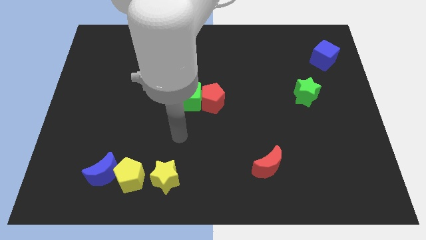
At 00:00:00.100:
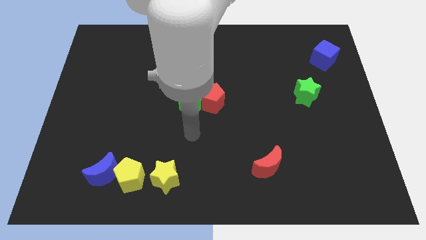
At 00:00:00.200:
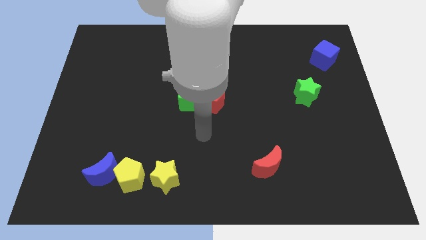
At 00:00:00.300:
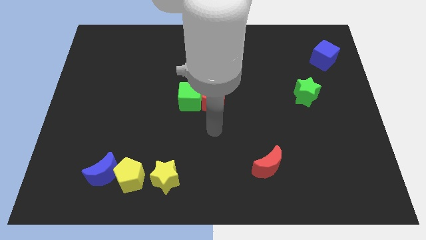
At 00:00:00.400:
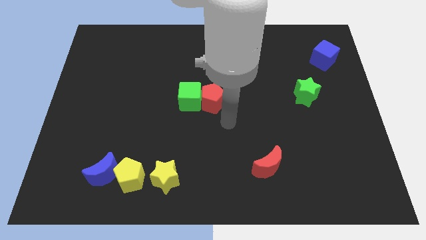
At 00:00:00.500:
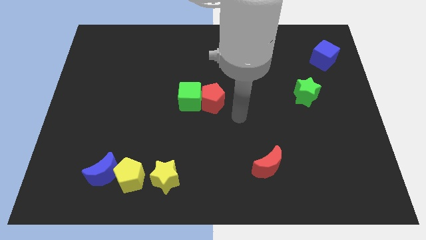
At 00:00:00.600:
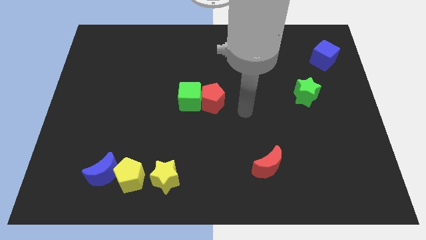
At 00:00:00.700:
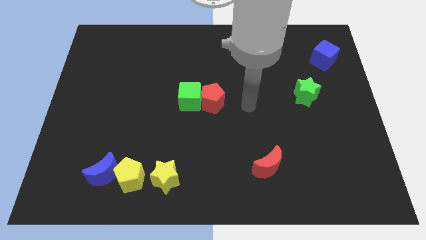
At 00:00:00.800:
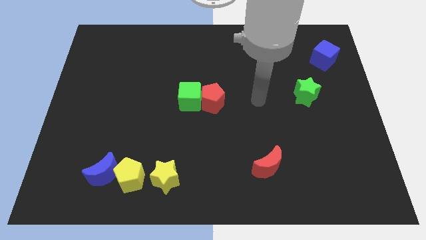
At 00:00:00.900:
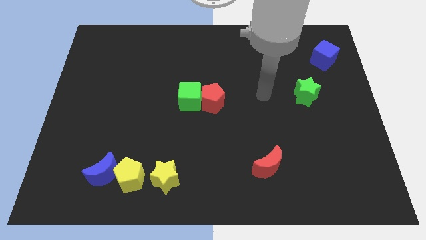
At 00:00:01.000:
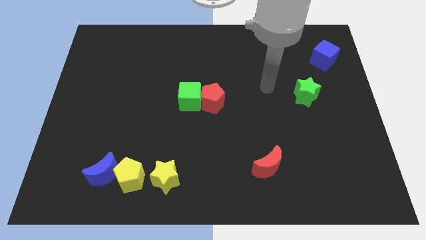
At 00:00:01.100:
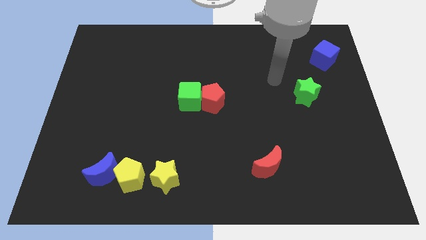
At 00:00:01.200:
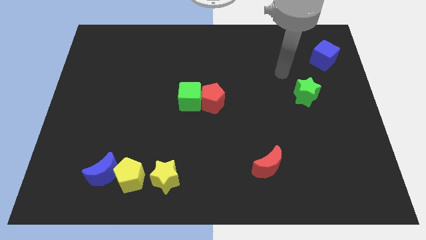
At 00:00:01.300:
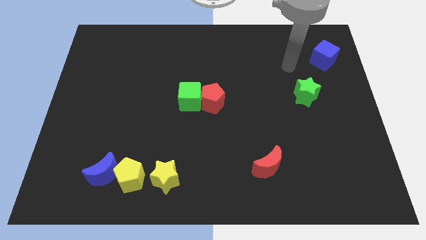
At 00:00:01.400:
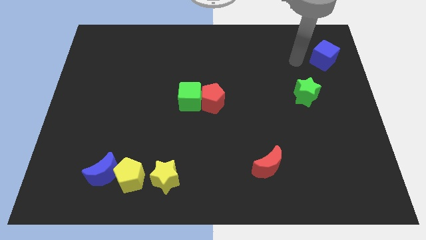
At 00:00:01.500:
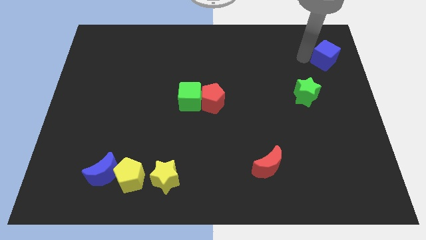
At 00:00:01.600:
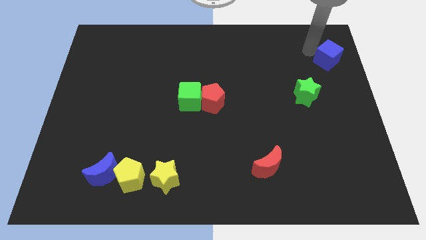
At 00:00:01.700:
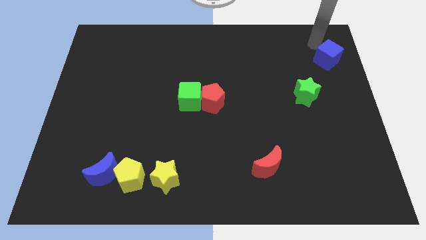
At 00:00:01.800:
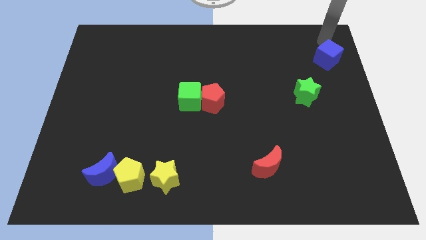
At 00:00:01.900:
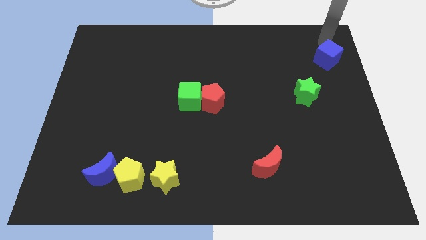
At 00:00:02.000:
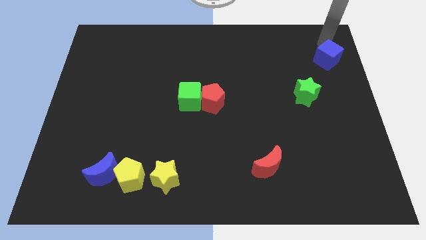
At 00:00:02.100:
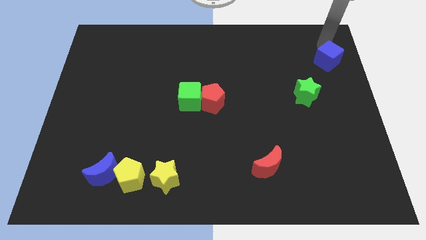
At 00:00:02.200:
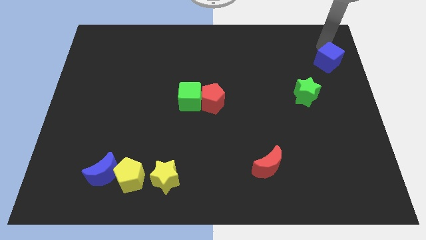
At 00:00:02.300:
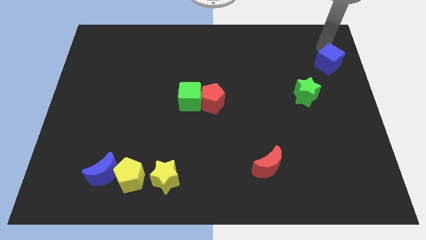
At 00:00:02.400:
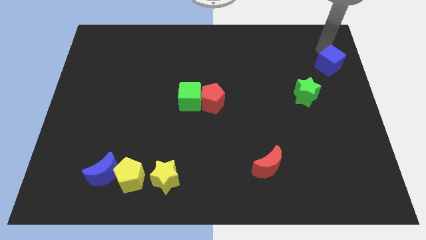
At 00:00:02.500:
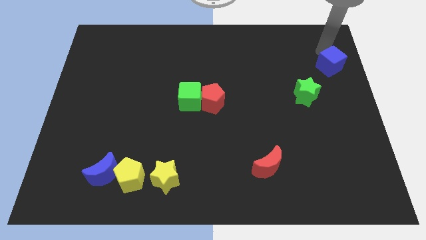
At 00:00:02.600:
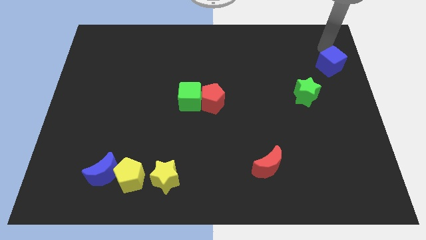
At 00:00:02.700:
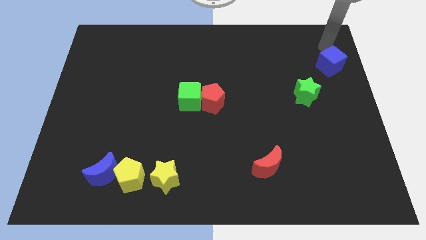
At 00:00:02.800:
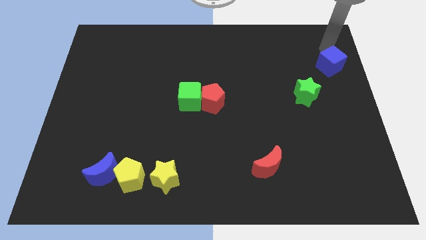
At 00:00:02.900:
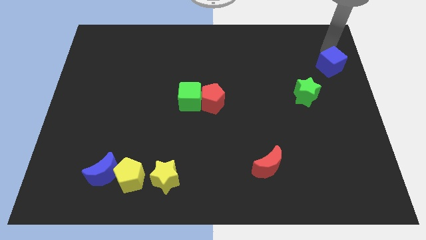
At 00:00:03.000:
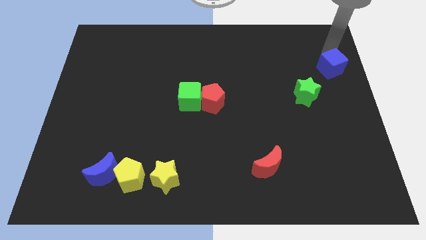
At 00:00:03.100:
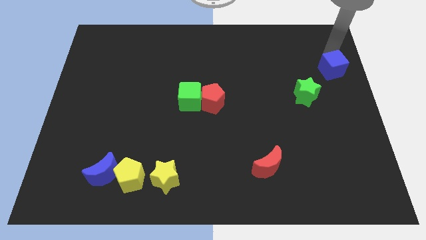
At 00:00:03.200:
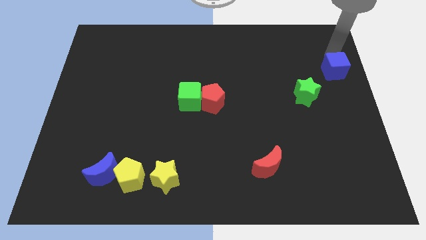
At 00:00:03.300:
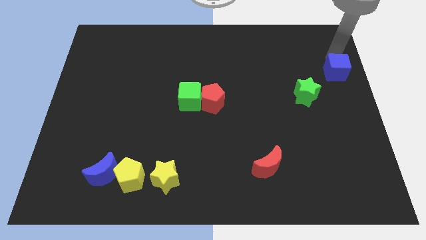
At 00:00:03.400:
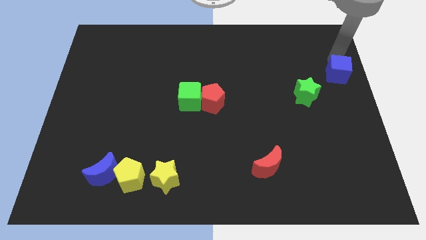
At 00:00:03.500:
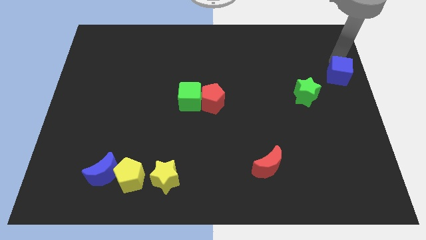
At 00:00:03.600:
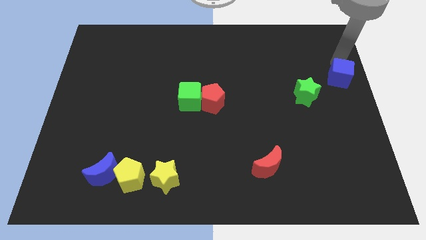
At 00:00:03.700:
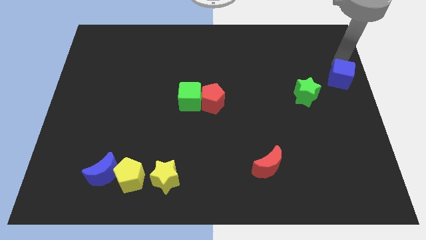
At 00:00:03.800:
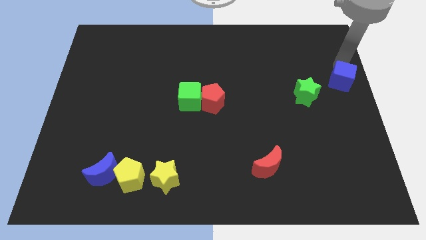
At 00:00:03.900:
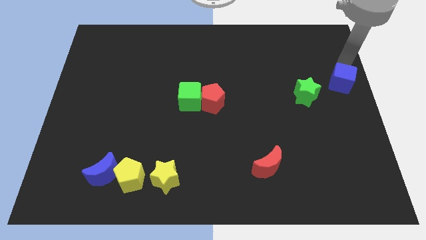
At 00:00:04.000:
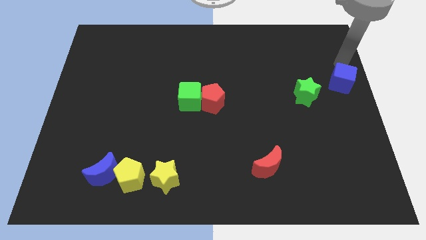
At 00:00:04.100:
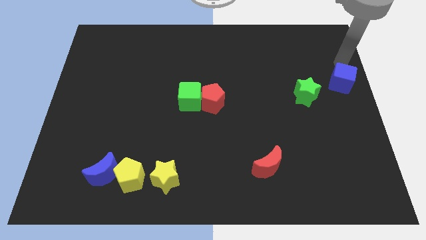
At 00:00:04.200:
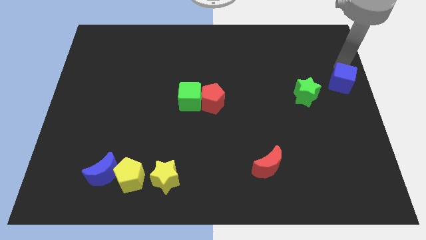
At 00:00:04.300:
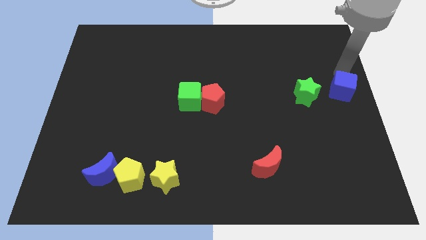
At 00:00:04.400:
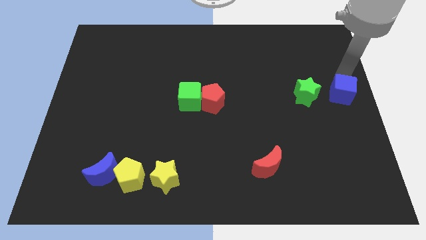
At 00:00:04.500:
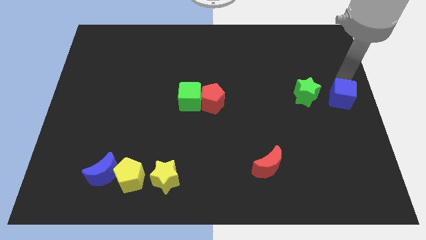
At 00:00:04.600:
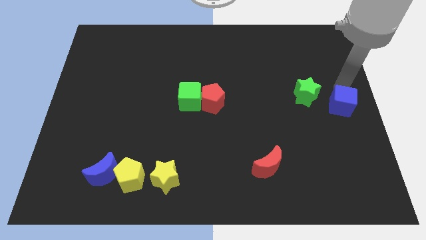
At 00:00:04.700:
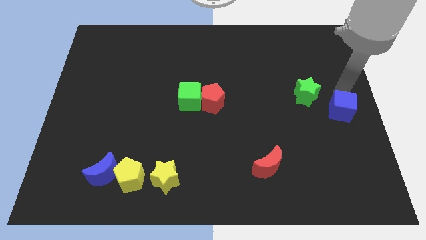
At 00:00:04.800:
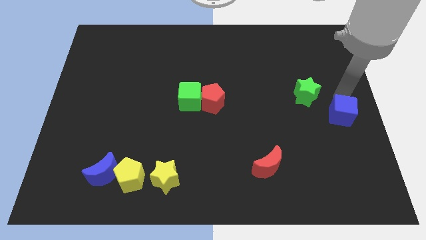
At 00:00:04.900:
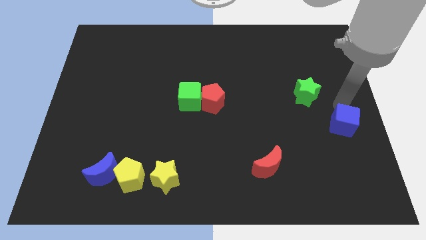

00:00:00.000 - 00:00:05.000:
slide the blue cube down

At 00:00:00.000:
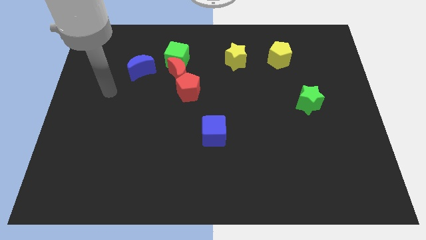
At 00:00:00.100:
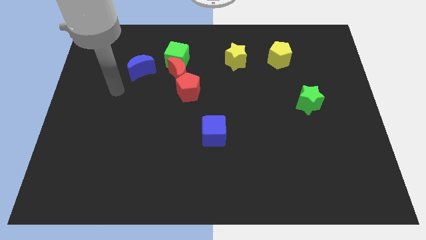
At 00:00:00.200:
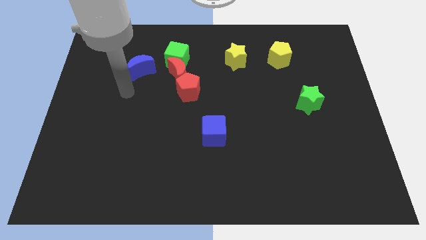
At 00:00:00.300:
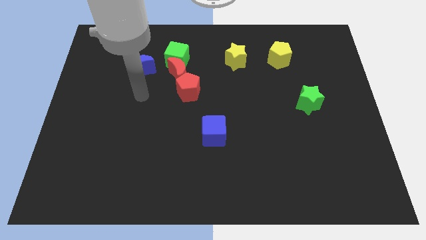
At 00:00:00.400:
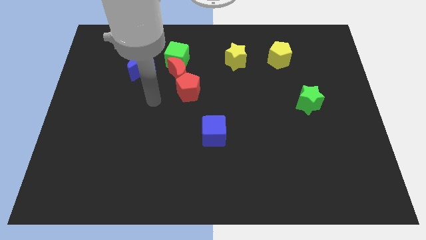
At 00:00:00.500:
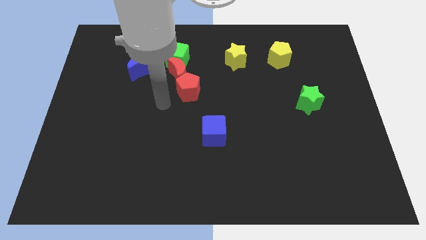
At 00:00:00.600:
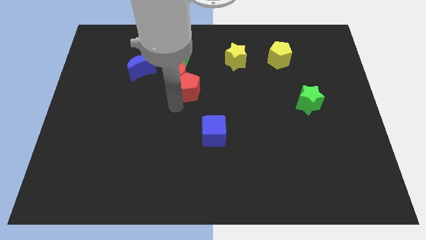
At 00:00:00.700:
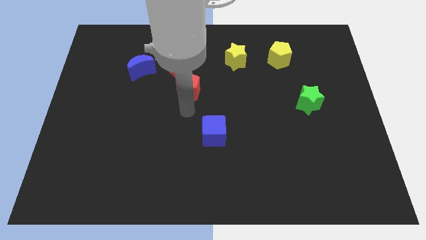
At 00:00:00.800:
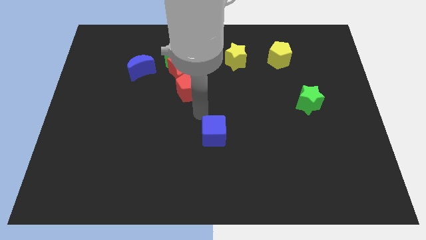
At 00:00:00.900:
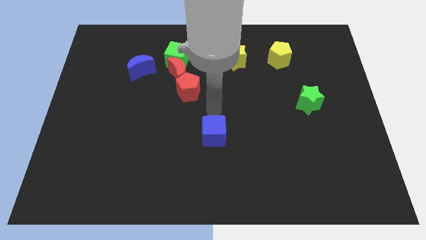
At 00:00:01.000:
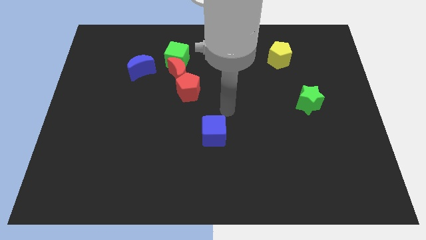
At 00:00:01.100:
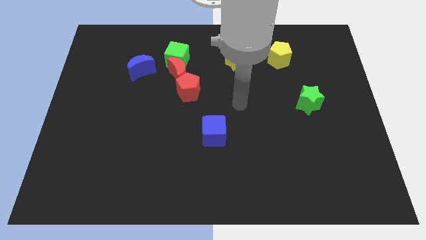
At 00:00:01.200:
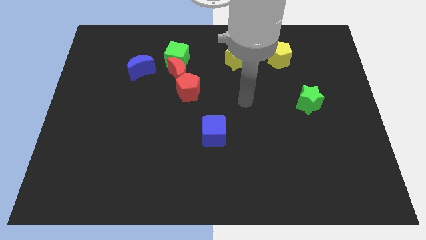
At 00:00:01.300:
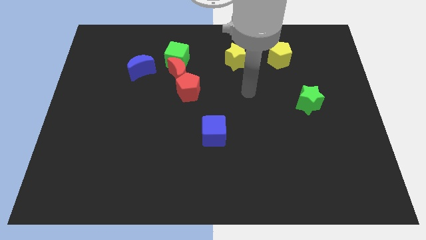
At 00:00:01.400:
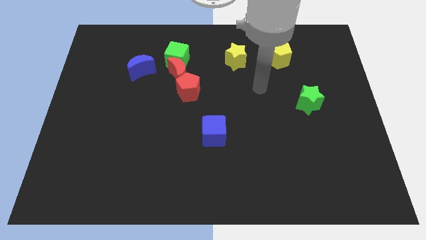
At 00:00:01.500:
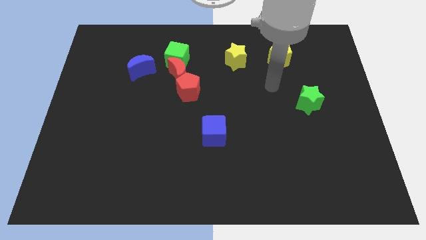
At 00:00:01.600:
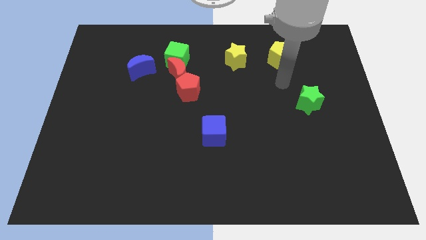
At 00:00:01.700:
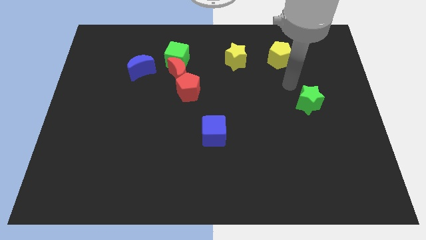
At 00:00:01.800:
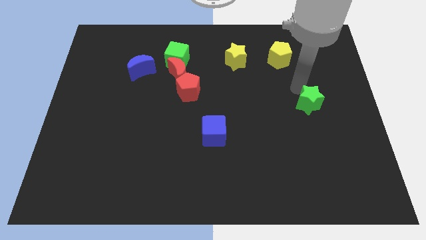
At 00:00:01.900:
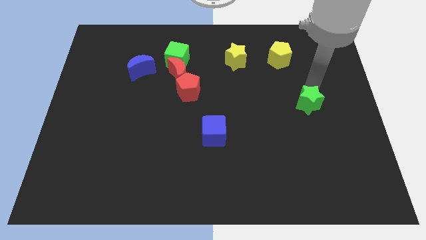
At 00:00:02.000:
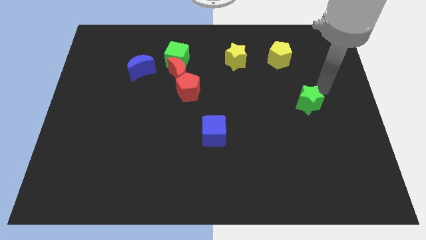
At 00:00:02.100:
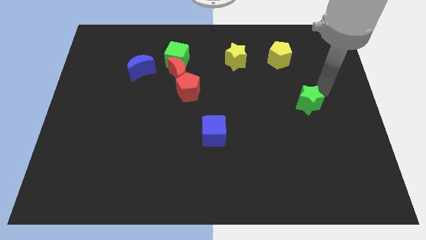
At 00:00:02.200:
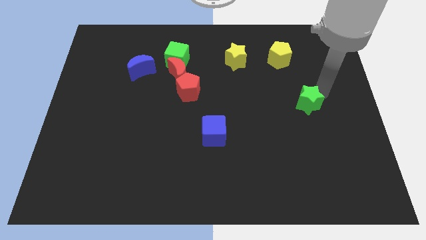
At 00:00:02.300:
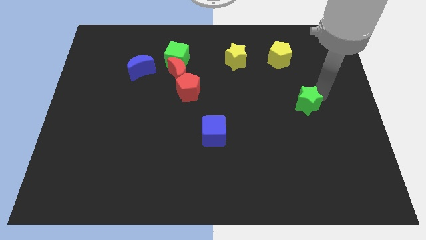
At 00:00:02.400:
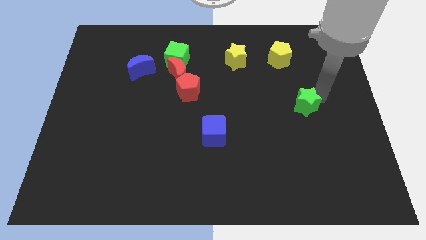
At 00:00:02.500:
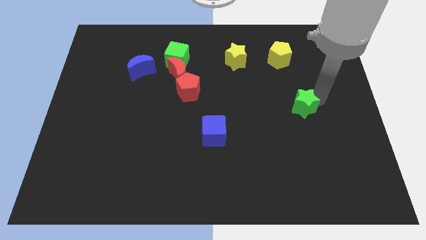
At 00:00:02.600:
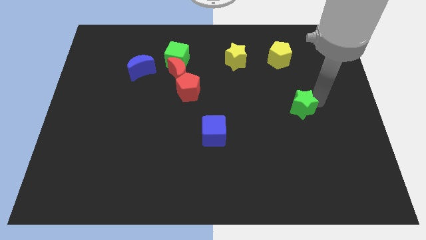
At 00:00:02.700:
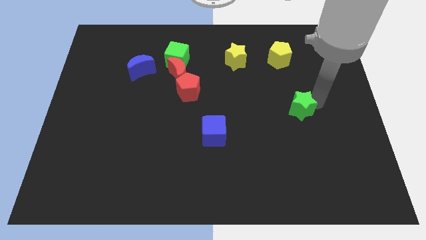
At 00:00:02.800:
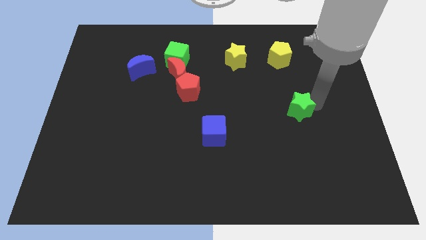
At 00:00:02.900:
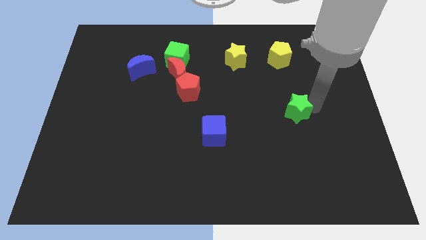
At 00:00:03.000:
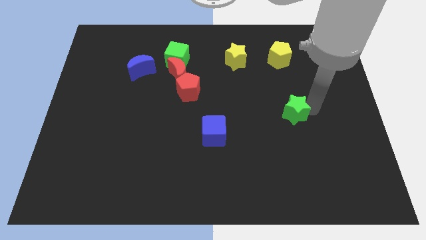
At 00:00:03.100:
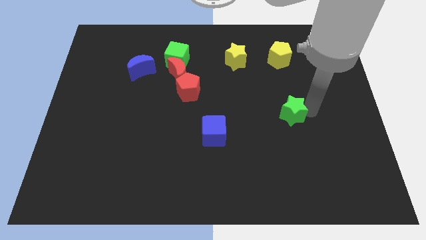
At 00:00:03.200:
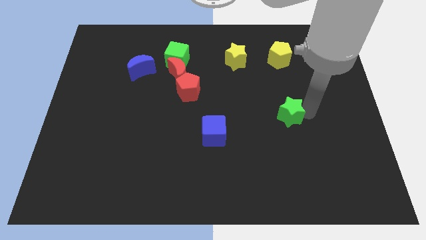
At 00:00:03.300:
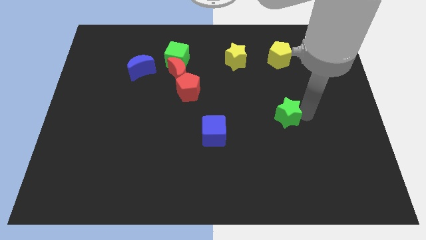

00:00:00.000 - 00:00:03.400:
move the green star down and left a little
